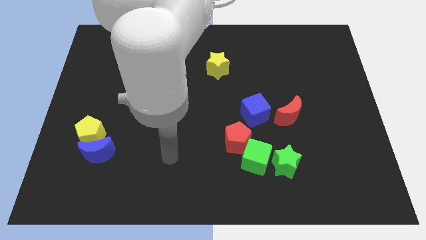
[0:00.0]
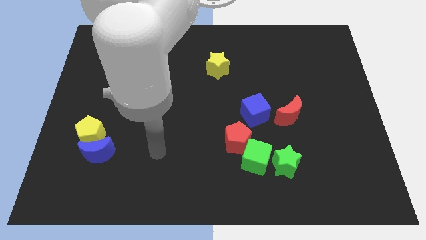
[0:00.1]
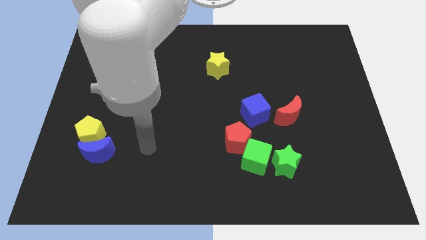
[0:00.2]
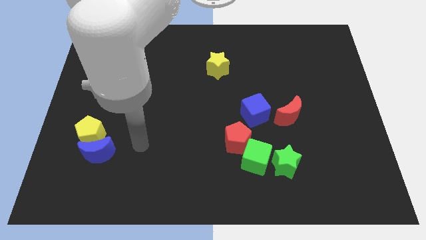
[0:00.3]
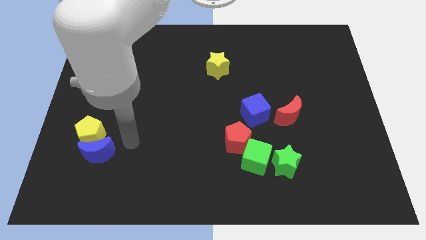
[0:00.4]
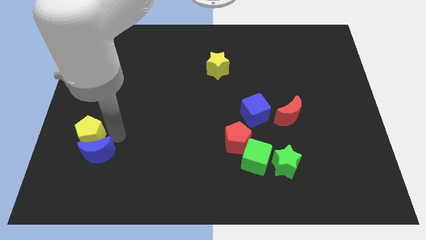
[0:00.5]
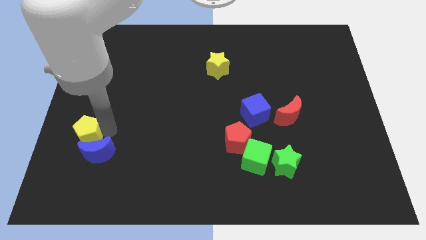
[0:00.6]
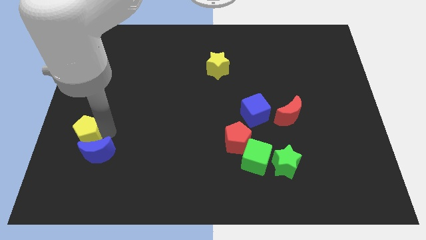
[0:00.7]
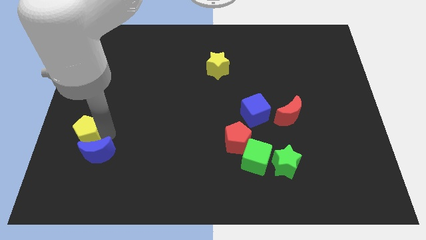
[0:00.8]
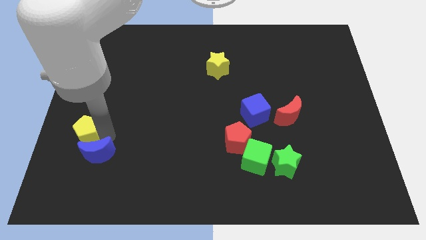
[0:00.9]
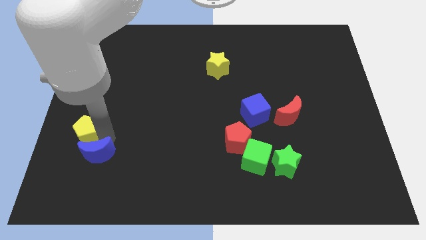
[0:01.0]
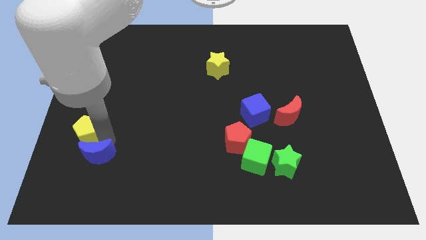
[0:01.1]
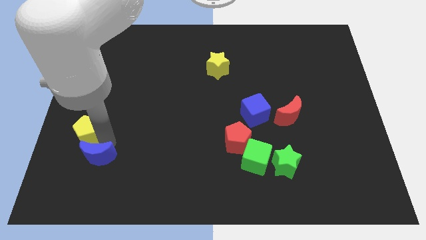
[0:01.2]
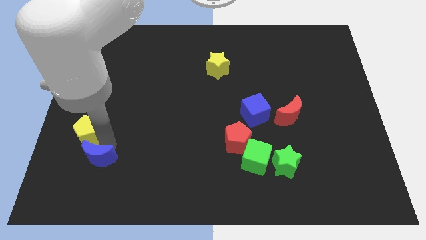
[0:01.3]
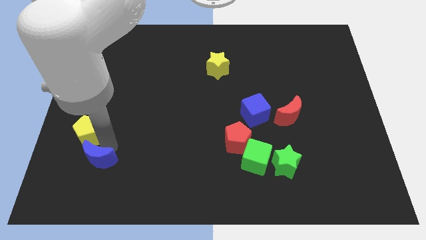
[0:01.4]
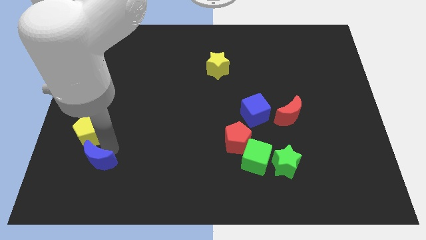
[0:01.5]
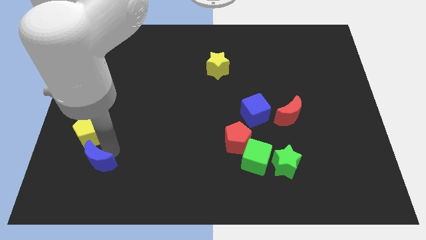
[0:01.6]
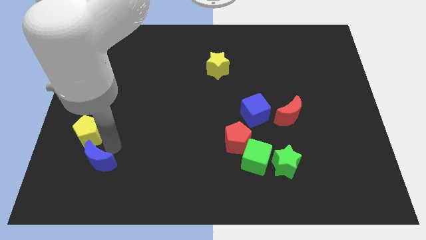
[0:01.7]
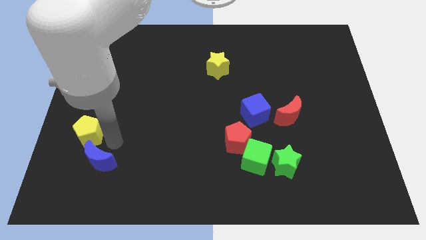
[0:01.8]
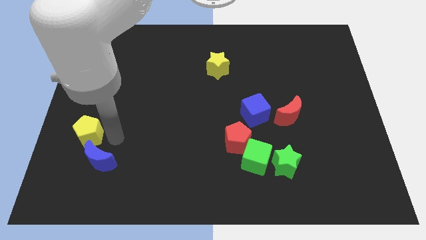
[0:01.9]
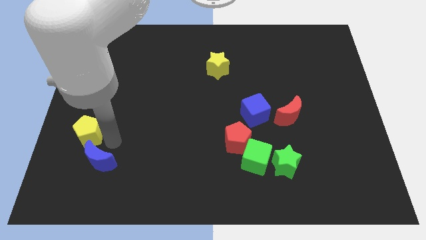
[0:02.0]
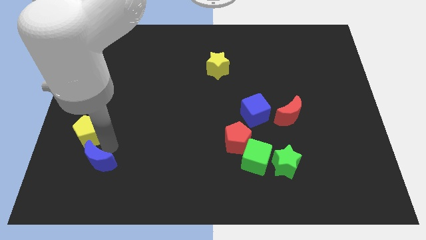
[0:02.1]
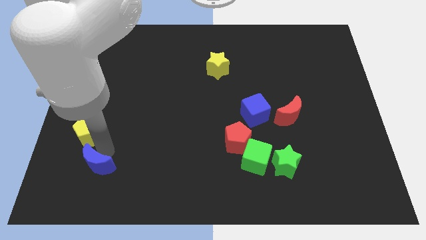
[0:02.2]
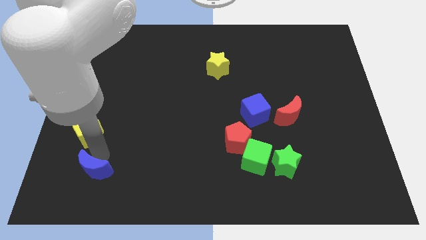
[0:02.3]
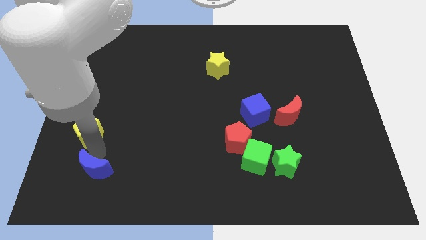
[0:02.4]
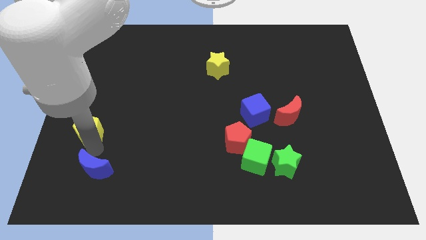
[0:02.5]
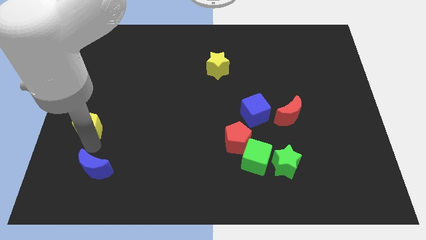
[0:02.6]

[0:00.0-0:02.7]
move the blue moon away from the yellow pentagon

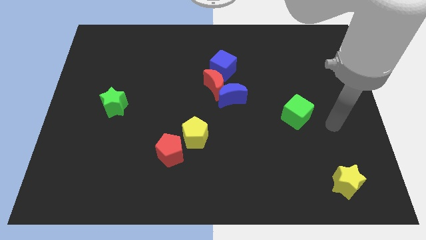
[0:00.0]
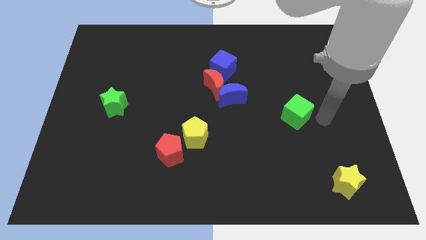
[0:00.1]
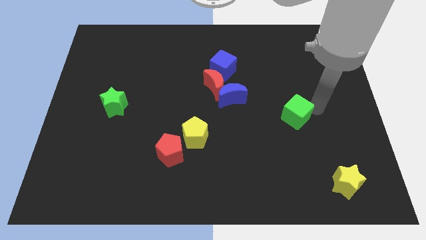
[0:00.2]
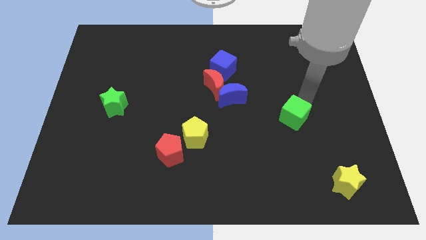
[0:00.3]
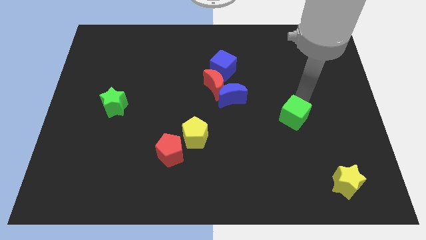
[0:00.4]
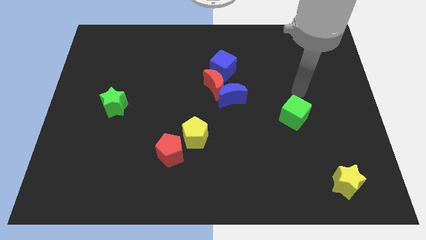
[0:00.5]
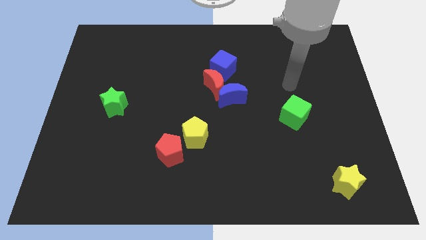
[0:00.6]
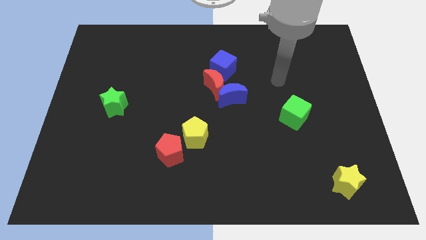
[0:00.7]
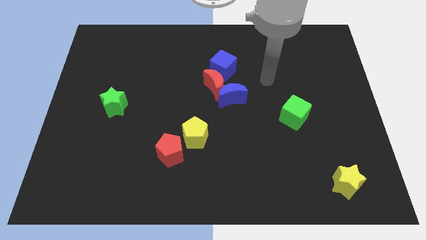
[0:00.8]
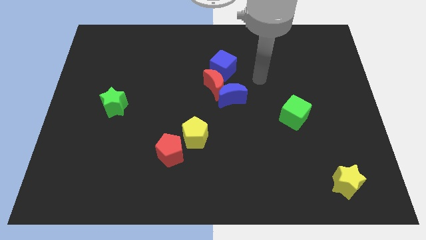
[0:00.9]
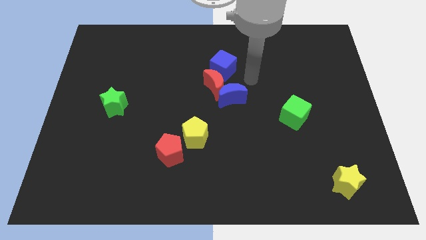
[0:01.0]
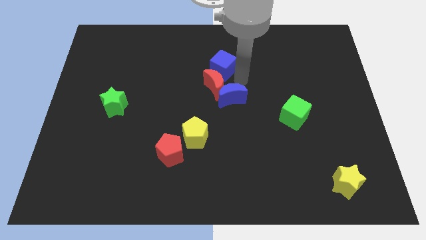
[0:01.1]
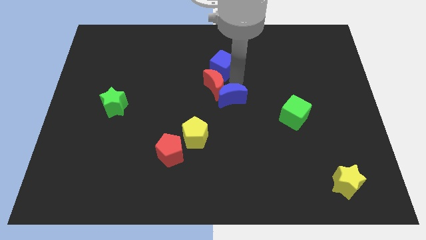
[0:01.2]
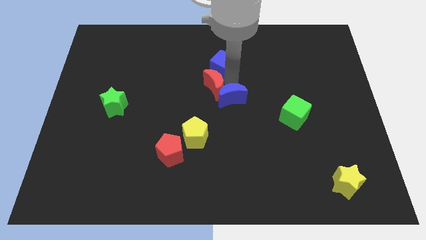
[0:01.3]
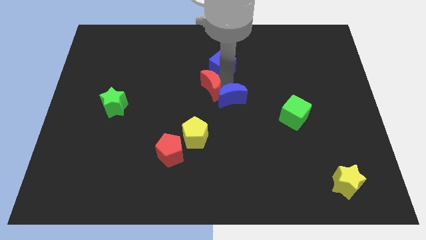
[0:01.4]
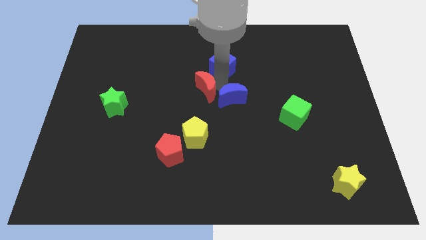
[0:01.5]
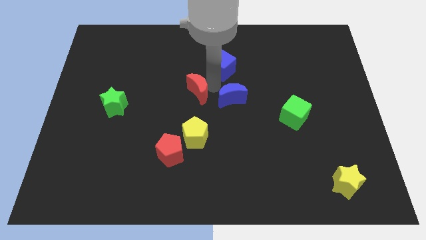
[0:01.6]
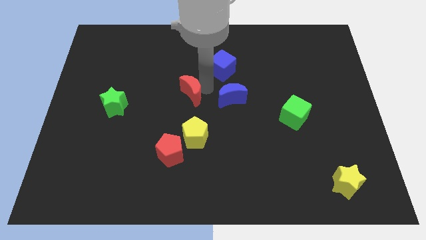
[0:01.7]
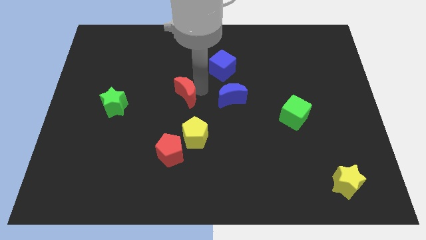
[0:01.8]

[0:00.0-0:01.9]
move the red moon away from the blue moon and blue cube

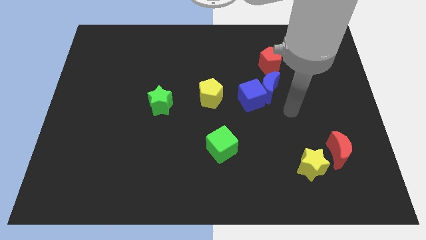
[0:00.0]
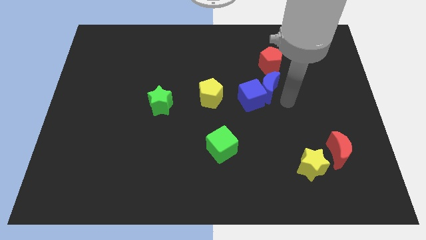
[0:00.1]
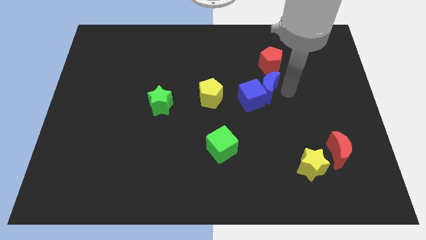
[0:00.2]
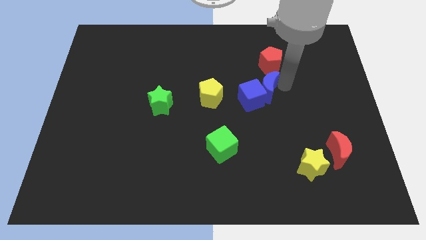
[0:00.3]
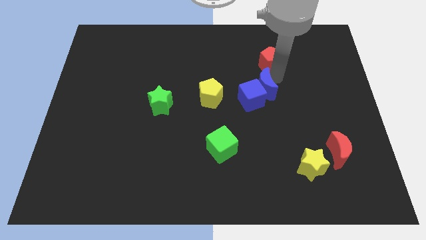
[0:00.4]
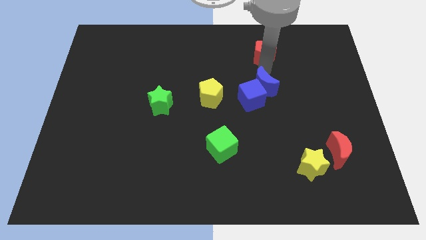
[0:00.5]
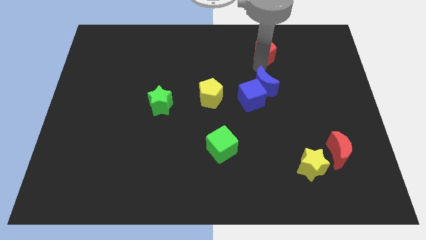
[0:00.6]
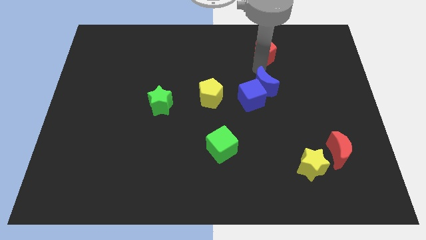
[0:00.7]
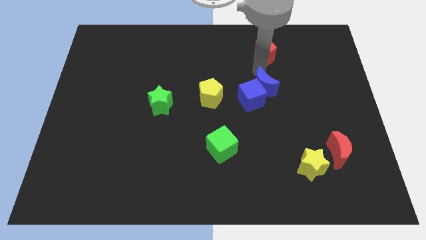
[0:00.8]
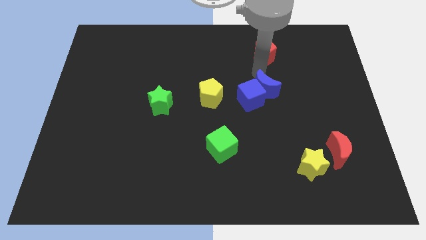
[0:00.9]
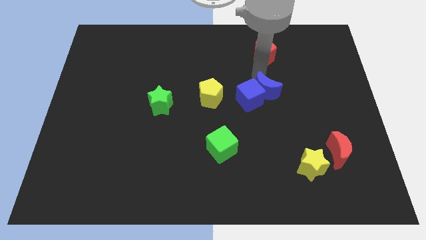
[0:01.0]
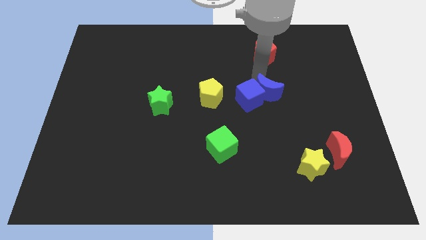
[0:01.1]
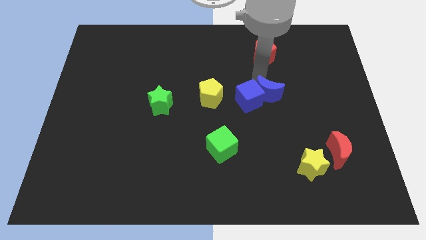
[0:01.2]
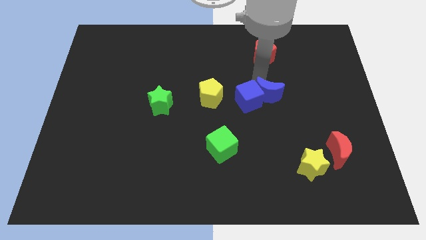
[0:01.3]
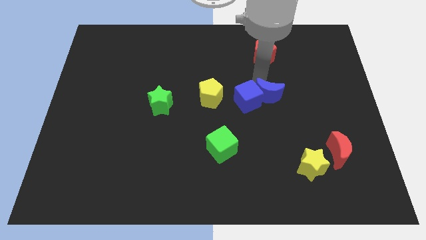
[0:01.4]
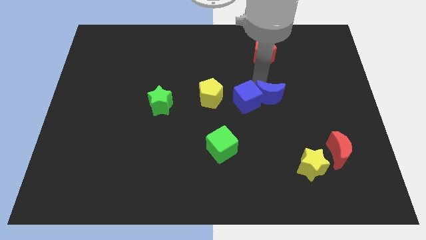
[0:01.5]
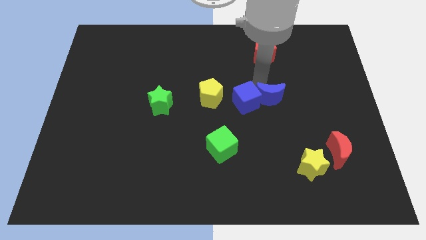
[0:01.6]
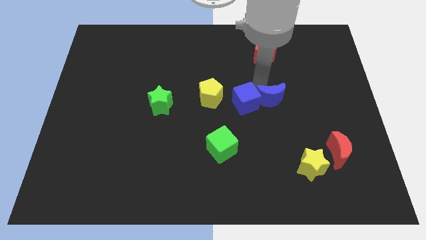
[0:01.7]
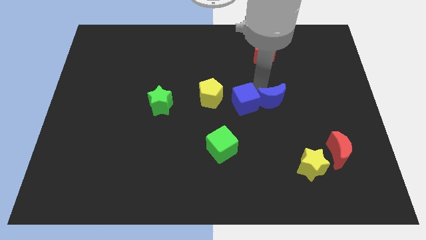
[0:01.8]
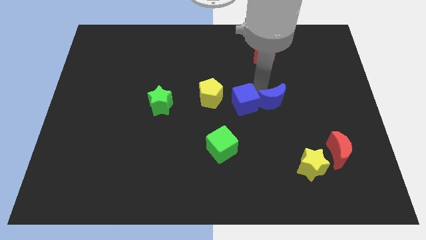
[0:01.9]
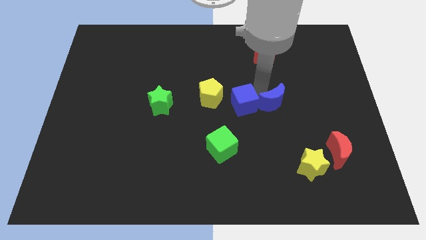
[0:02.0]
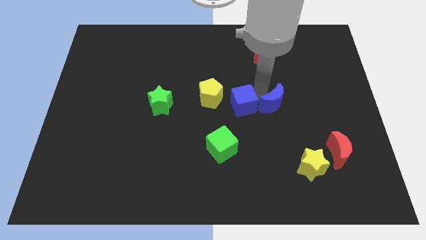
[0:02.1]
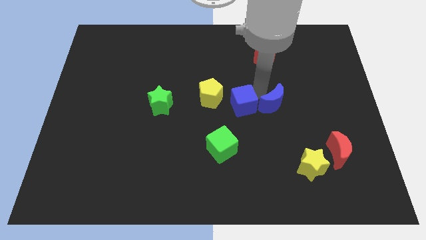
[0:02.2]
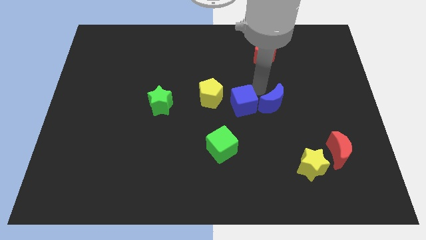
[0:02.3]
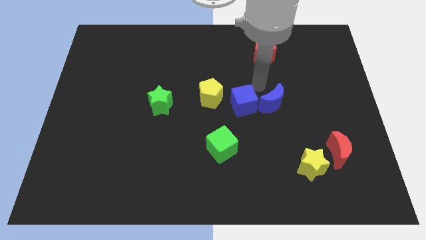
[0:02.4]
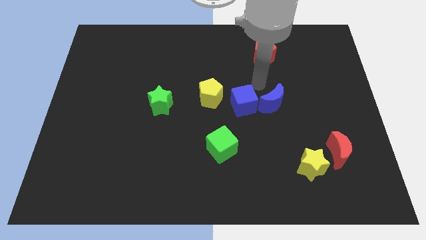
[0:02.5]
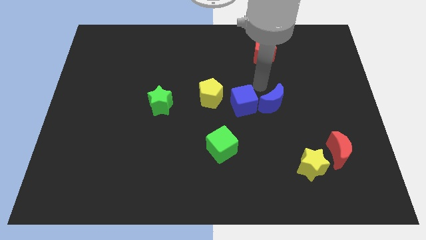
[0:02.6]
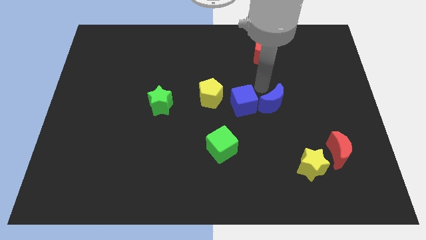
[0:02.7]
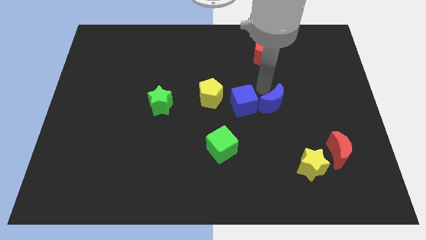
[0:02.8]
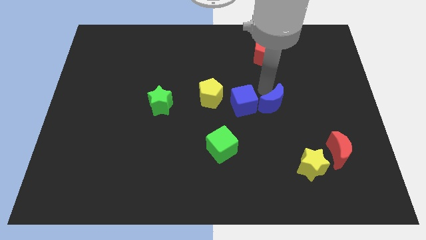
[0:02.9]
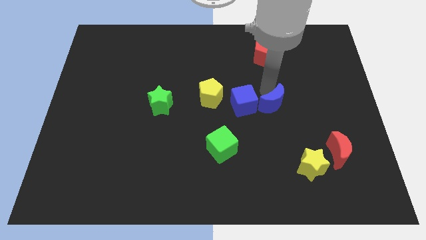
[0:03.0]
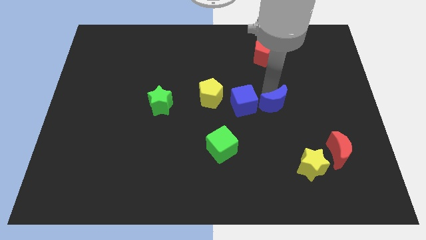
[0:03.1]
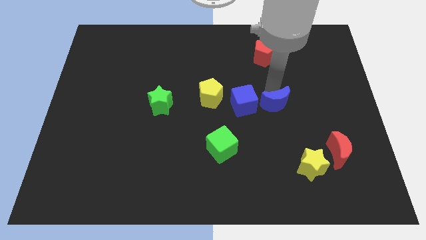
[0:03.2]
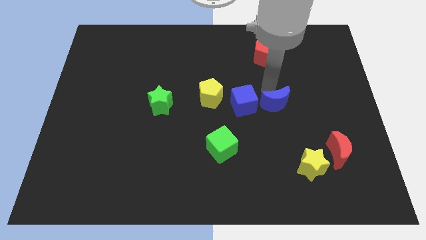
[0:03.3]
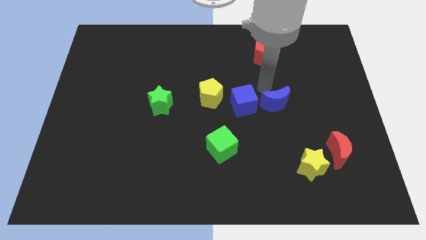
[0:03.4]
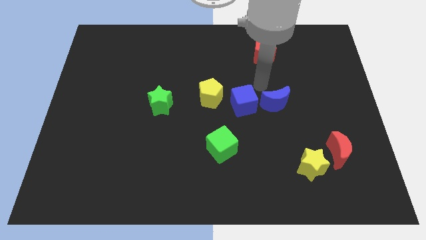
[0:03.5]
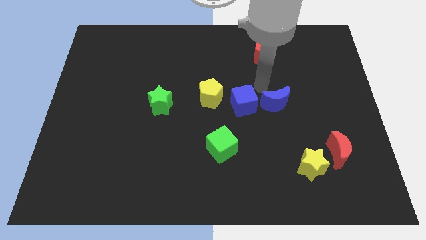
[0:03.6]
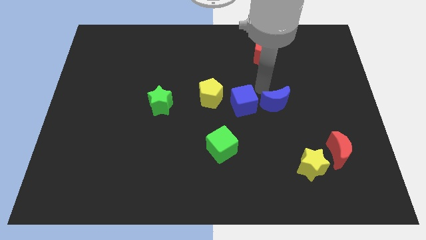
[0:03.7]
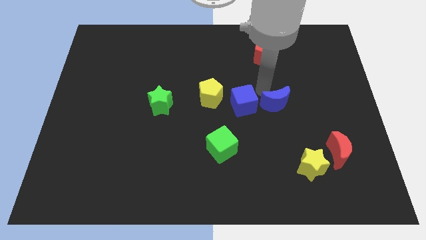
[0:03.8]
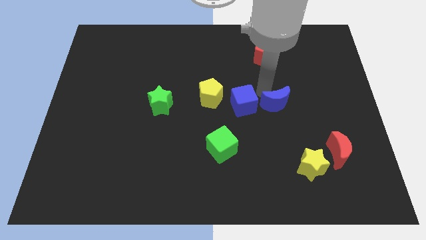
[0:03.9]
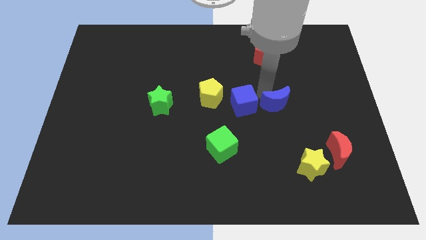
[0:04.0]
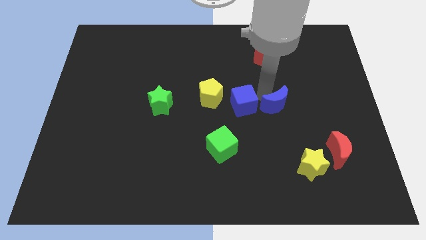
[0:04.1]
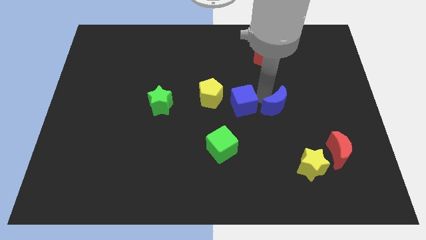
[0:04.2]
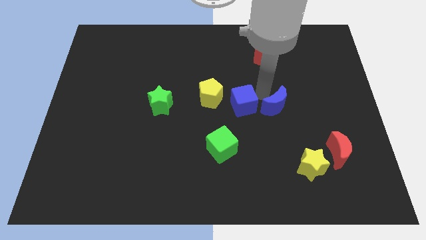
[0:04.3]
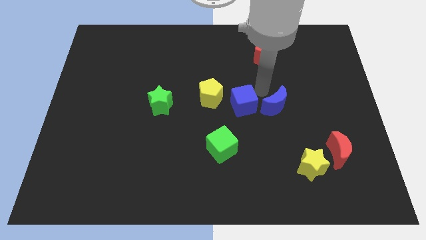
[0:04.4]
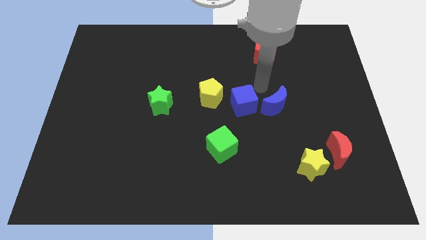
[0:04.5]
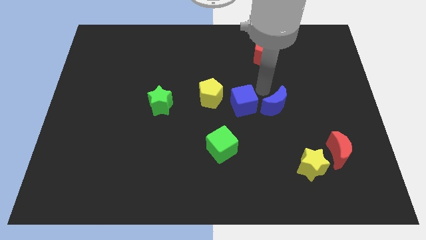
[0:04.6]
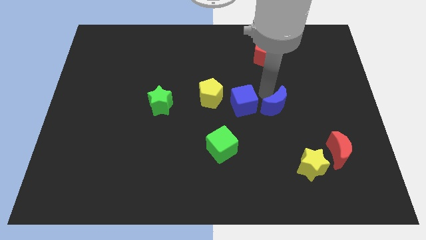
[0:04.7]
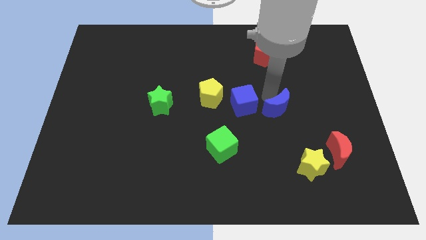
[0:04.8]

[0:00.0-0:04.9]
move the blue moon away from the blue cube and red pentagon
